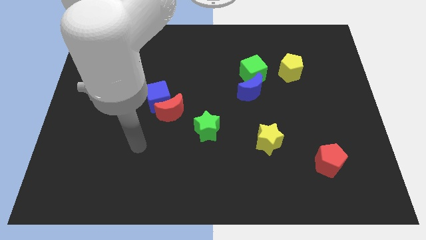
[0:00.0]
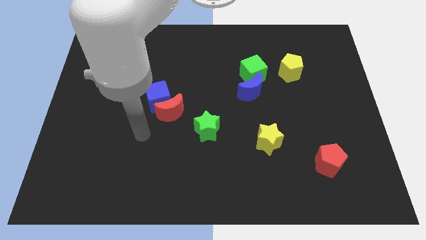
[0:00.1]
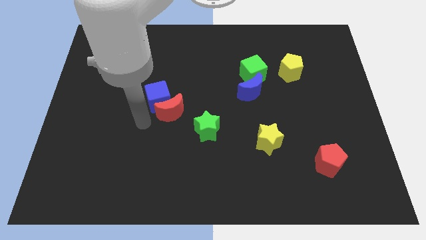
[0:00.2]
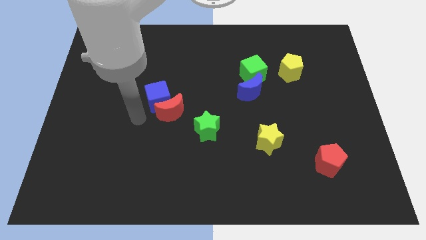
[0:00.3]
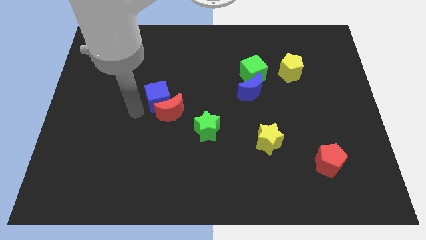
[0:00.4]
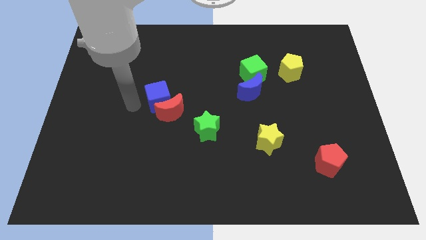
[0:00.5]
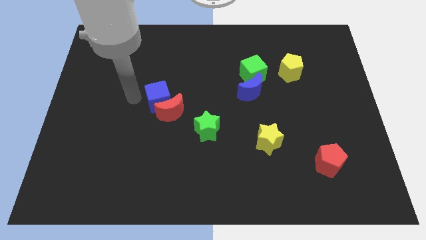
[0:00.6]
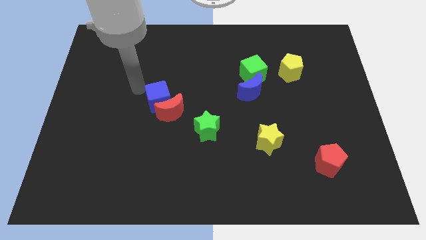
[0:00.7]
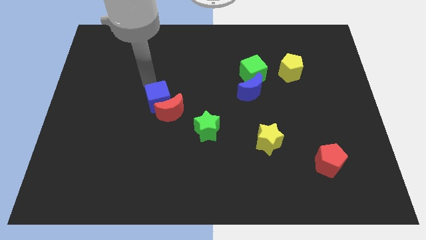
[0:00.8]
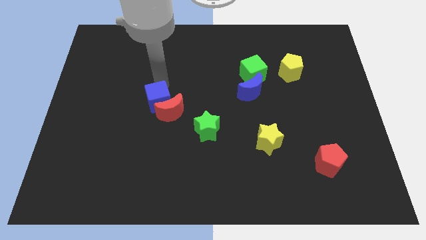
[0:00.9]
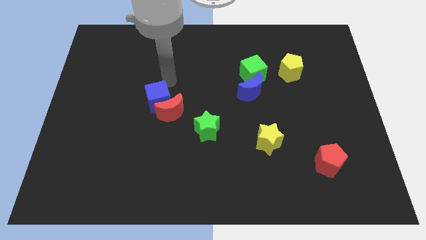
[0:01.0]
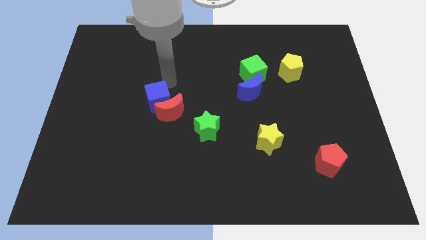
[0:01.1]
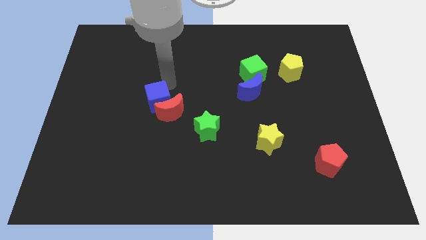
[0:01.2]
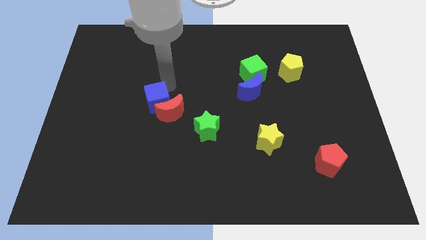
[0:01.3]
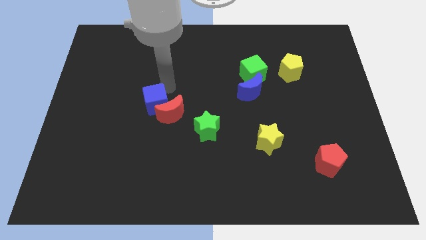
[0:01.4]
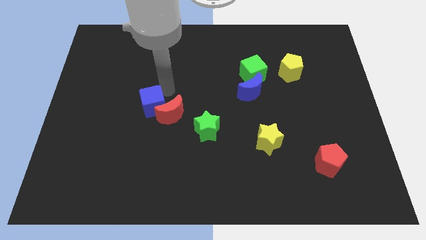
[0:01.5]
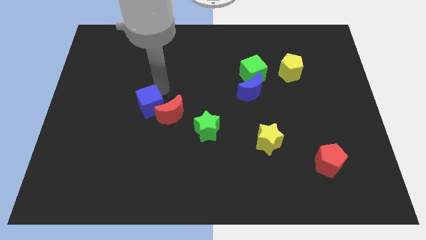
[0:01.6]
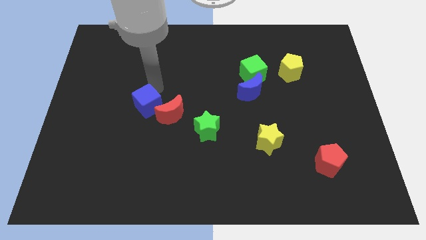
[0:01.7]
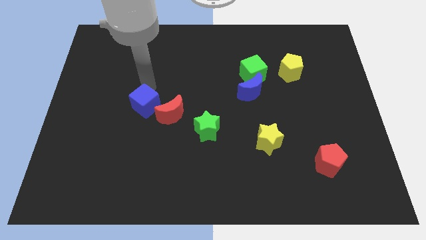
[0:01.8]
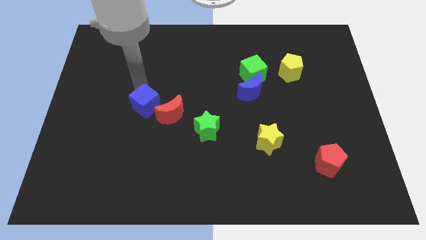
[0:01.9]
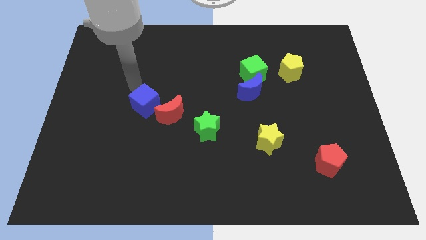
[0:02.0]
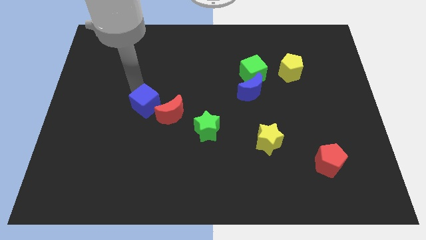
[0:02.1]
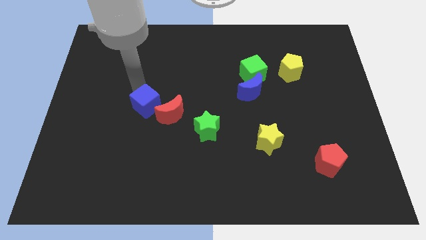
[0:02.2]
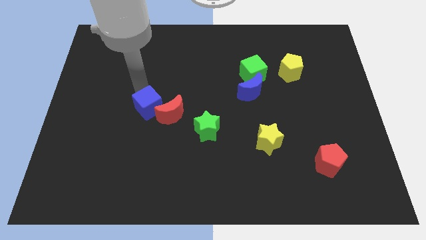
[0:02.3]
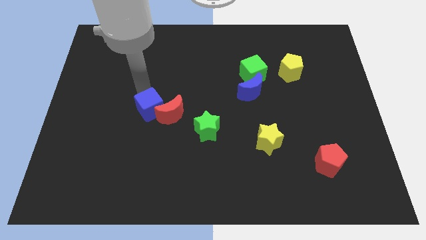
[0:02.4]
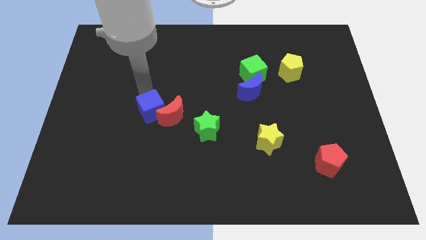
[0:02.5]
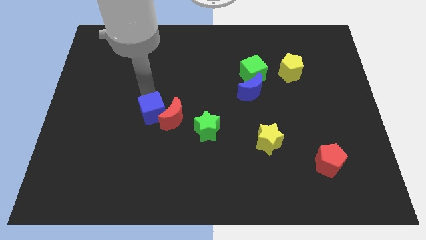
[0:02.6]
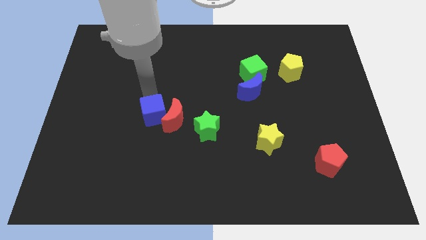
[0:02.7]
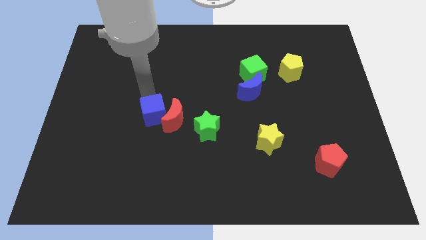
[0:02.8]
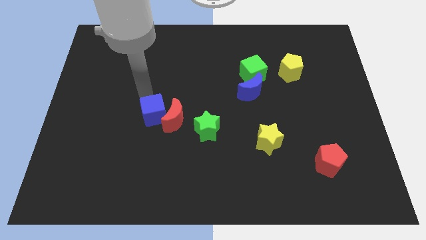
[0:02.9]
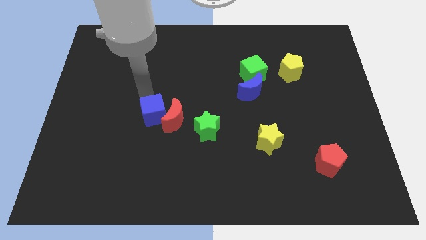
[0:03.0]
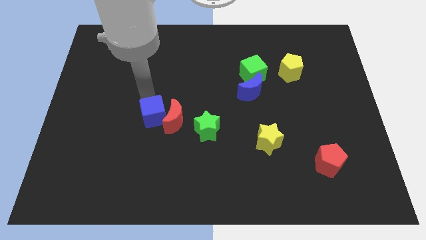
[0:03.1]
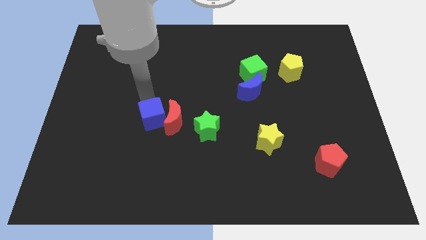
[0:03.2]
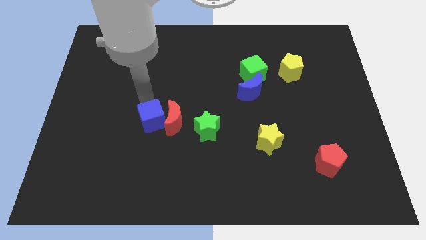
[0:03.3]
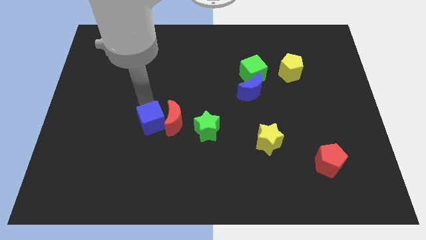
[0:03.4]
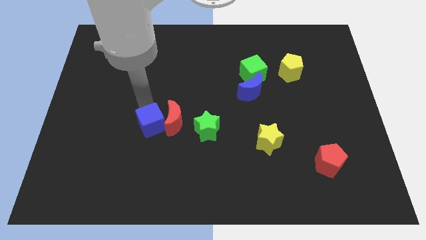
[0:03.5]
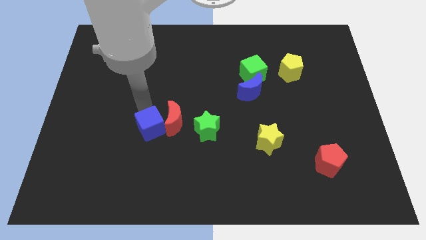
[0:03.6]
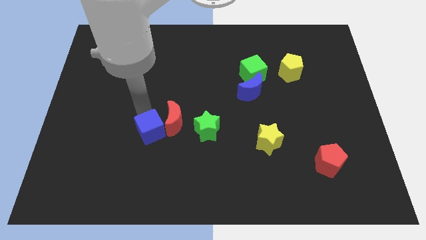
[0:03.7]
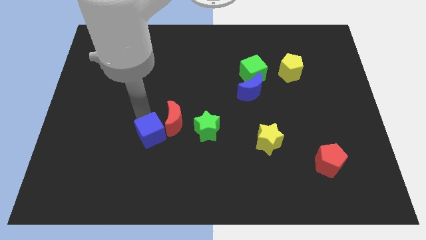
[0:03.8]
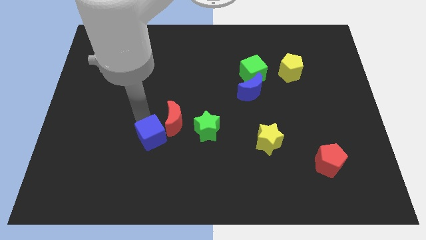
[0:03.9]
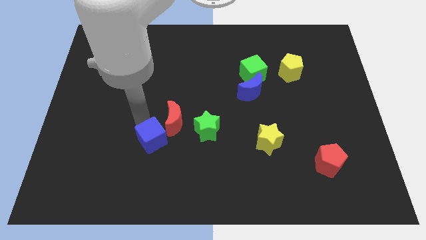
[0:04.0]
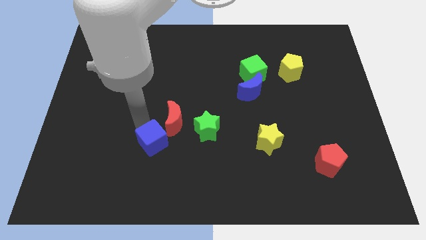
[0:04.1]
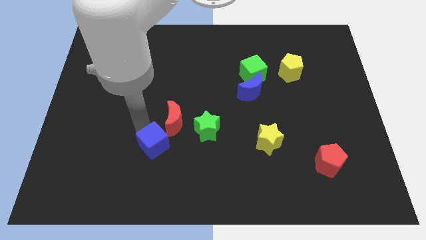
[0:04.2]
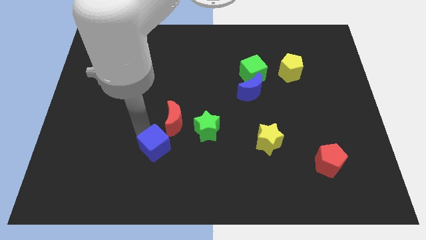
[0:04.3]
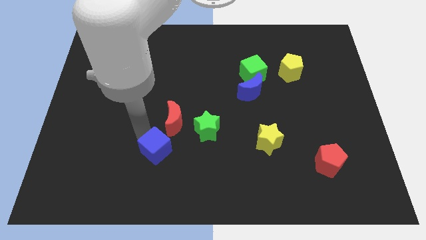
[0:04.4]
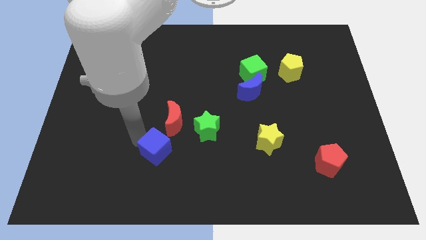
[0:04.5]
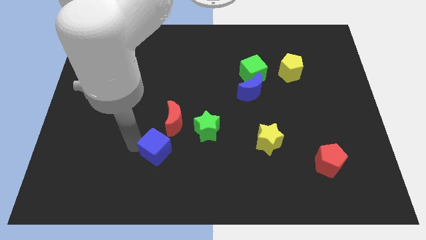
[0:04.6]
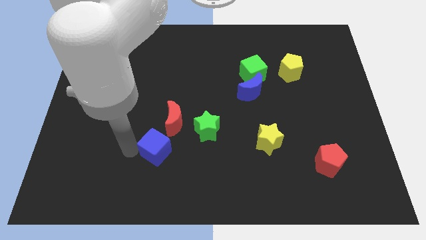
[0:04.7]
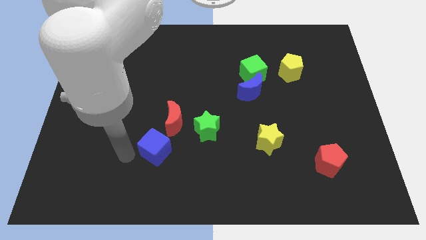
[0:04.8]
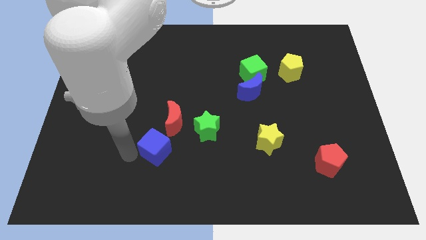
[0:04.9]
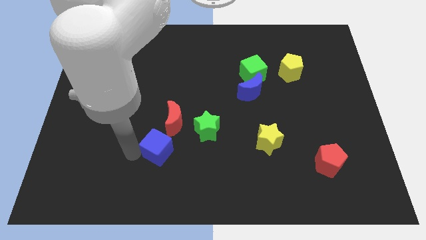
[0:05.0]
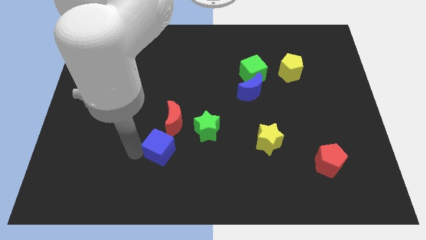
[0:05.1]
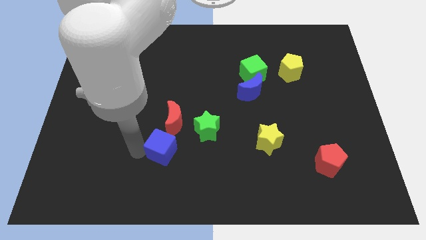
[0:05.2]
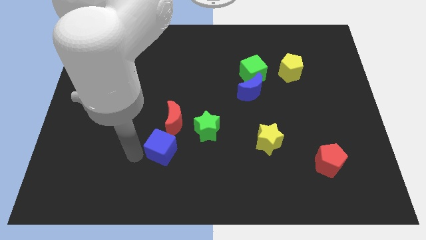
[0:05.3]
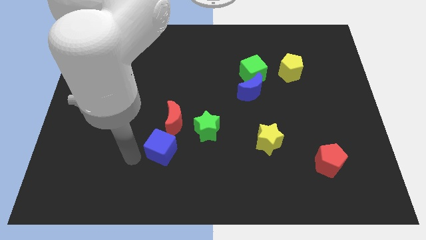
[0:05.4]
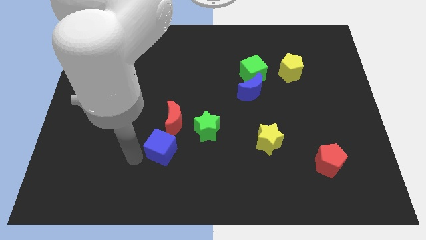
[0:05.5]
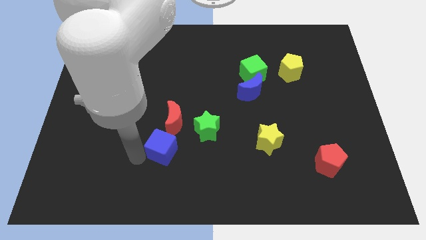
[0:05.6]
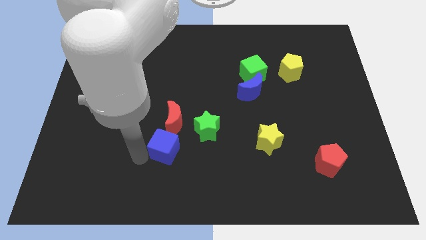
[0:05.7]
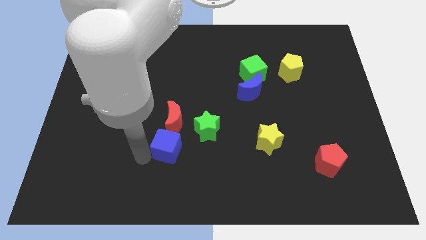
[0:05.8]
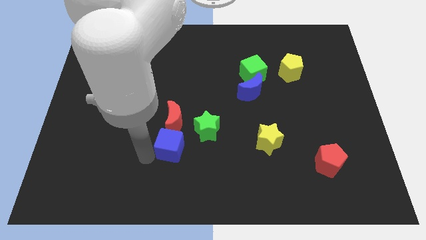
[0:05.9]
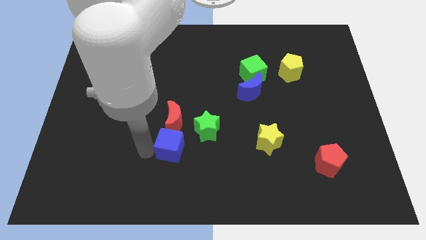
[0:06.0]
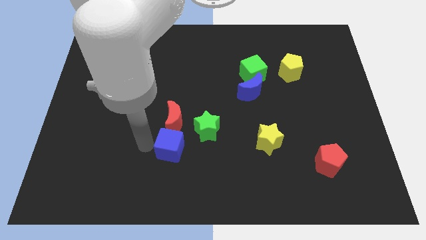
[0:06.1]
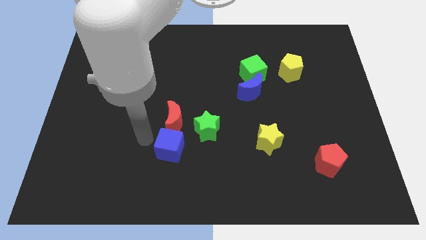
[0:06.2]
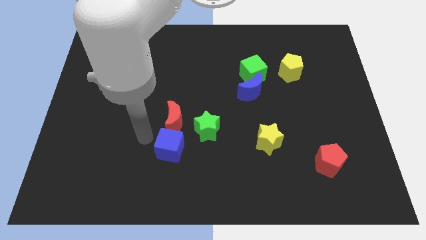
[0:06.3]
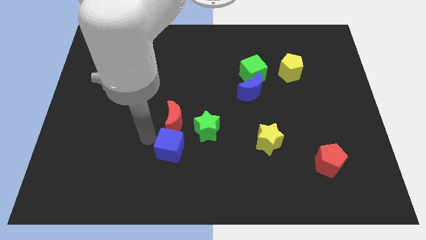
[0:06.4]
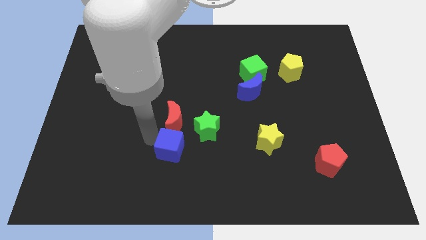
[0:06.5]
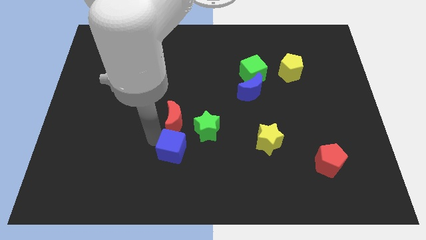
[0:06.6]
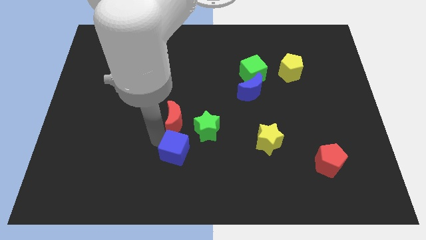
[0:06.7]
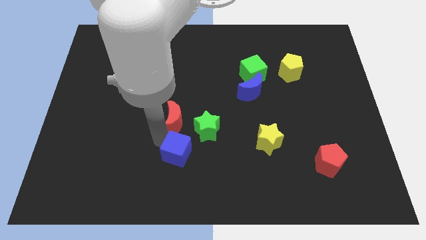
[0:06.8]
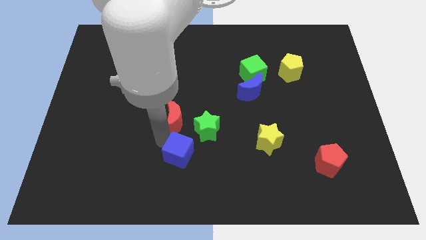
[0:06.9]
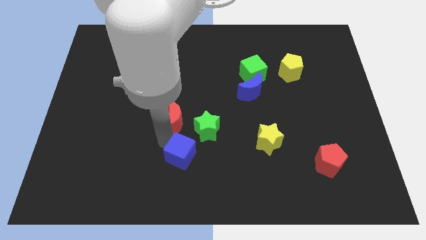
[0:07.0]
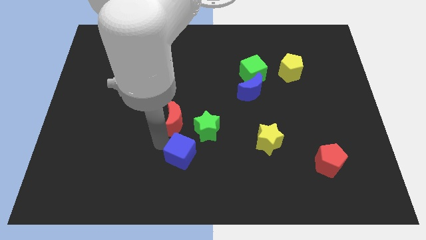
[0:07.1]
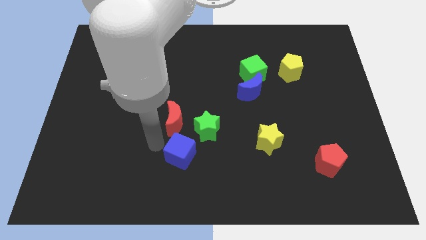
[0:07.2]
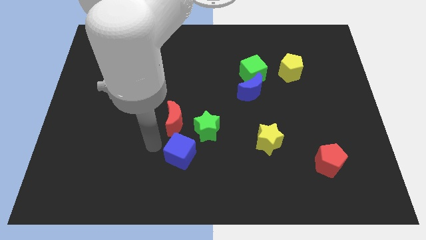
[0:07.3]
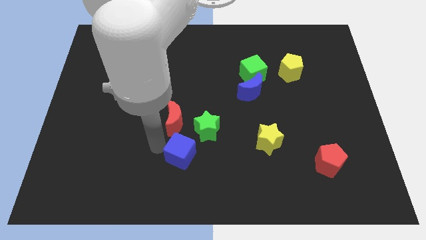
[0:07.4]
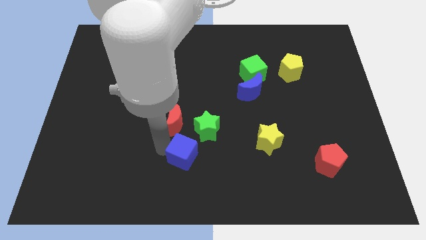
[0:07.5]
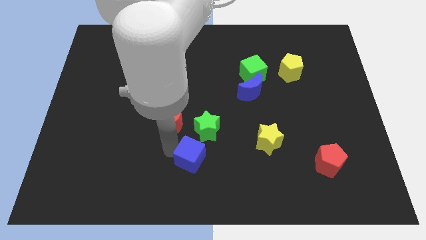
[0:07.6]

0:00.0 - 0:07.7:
push the blue cube to the bottom of the green star
